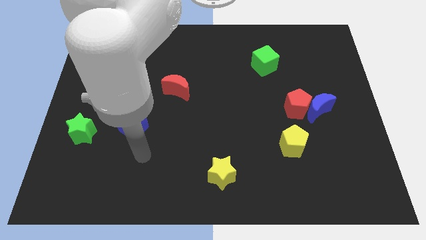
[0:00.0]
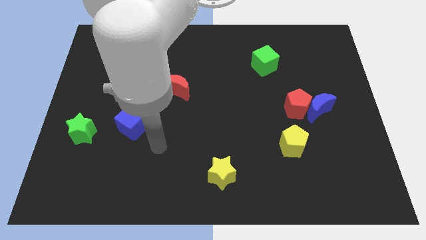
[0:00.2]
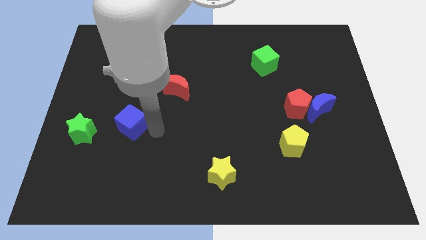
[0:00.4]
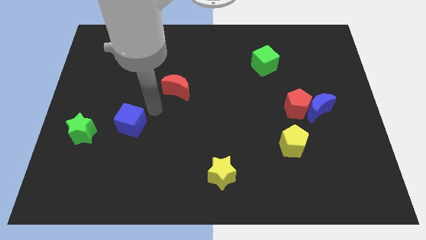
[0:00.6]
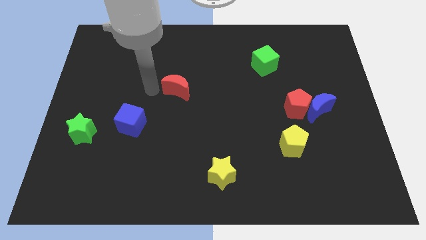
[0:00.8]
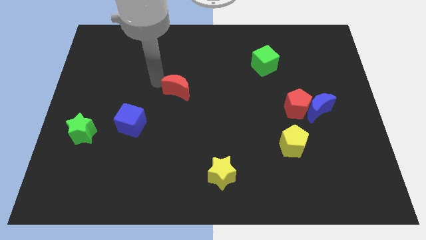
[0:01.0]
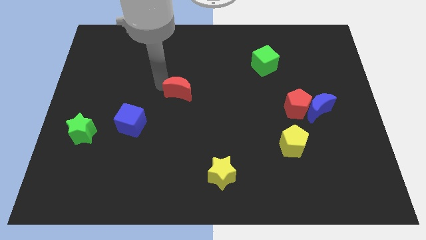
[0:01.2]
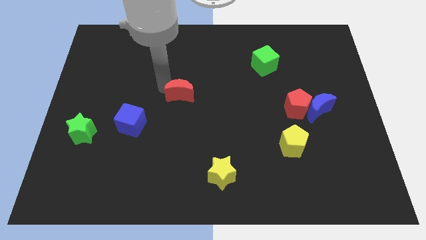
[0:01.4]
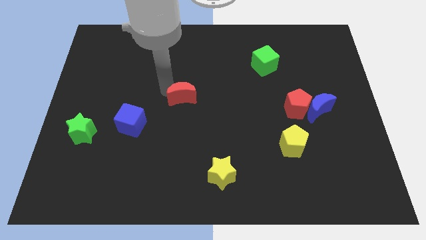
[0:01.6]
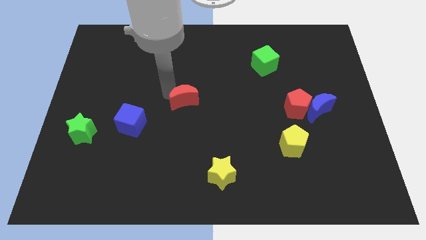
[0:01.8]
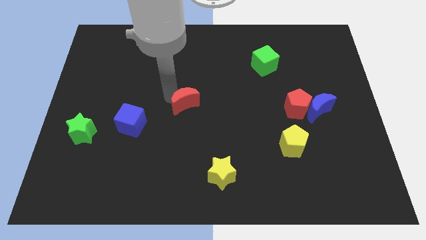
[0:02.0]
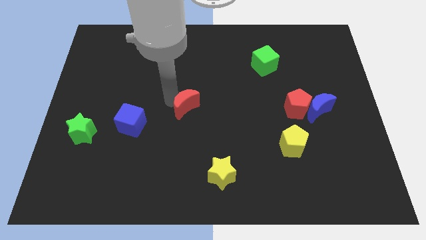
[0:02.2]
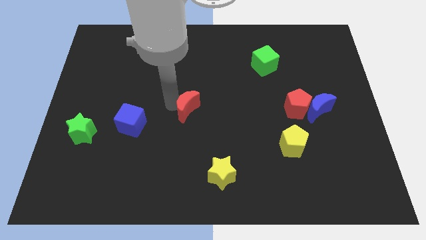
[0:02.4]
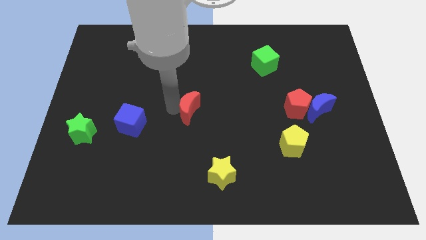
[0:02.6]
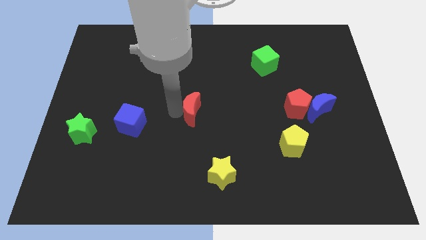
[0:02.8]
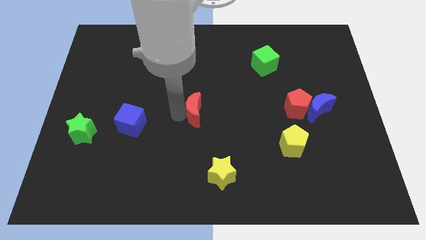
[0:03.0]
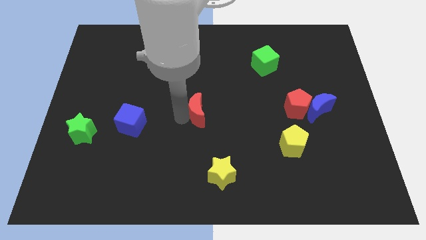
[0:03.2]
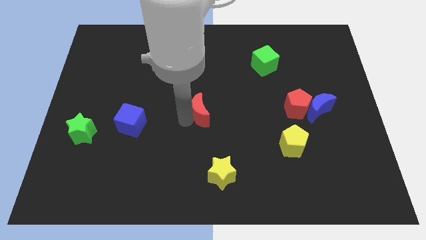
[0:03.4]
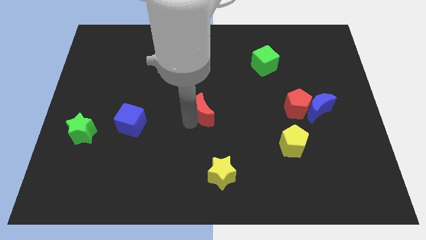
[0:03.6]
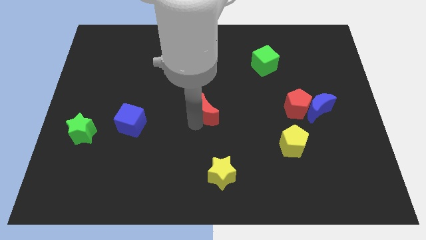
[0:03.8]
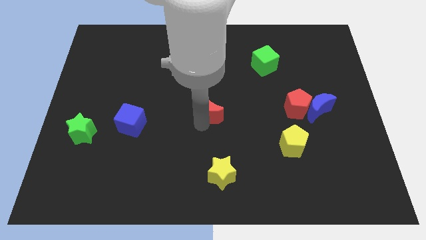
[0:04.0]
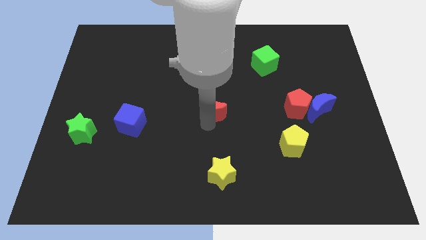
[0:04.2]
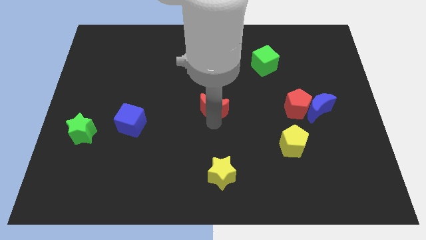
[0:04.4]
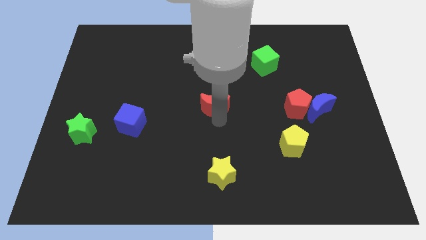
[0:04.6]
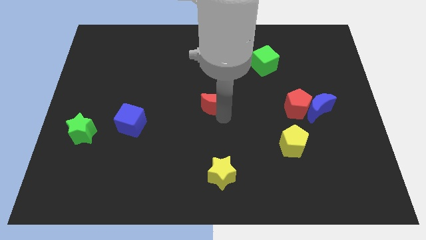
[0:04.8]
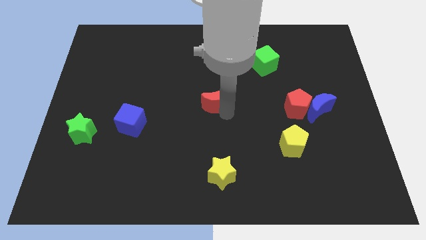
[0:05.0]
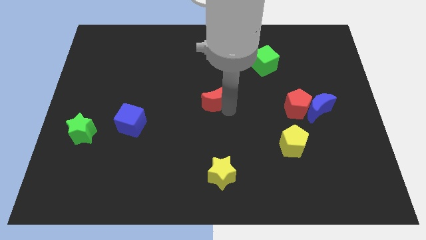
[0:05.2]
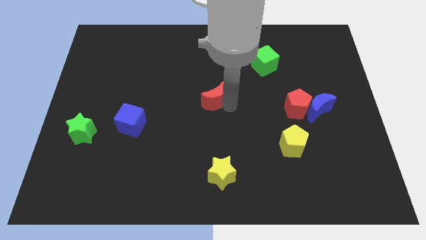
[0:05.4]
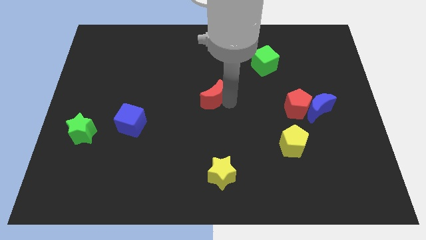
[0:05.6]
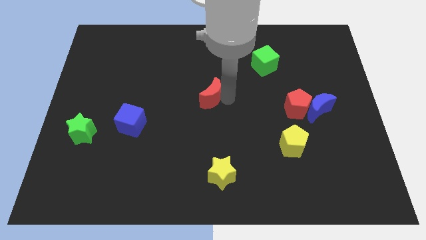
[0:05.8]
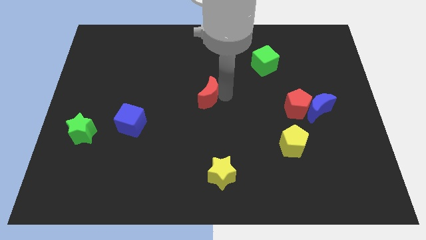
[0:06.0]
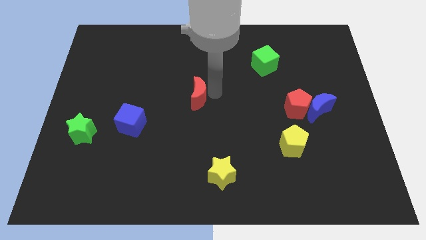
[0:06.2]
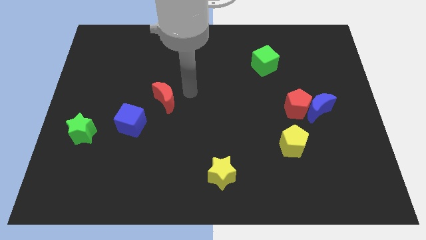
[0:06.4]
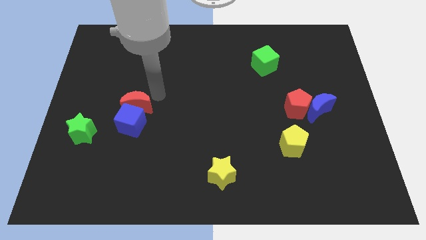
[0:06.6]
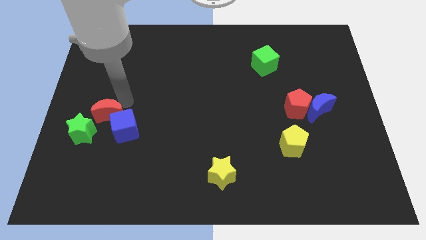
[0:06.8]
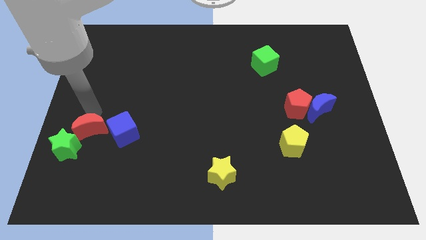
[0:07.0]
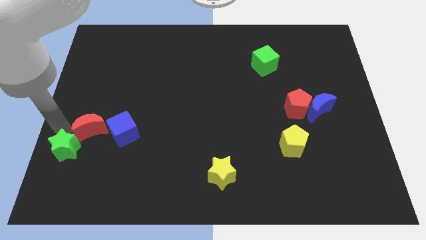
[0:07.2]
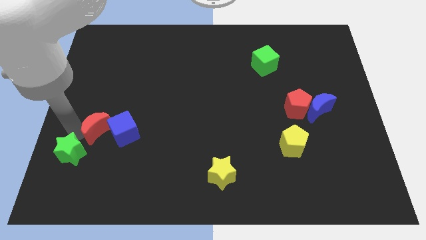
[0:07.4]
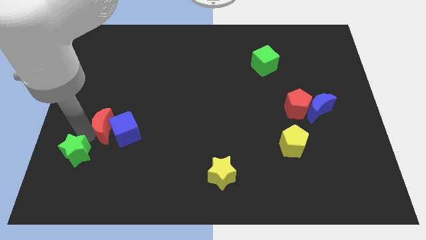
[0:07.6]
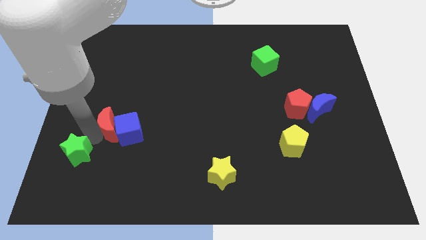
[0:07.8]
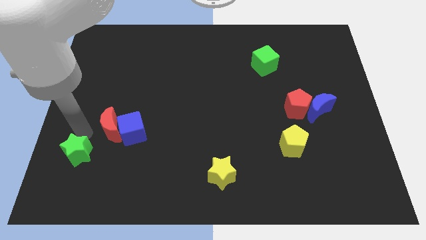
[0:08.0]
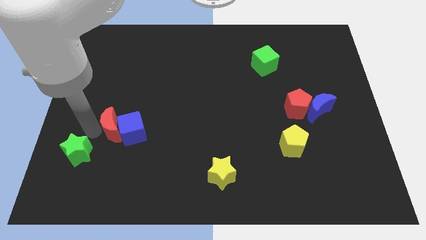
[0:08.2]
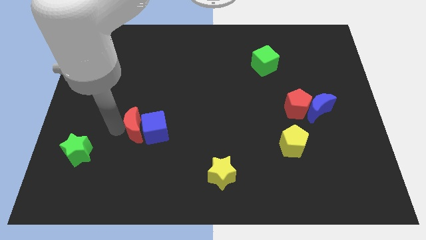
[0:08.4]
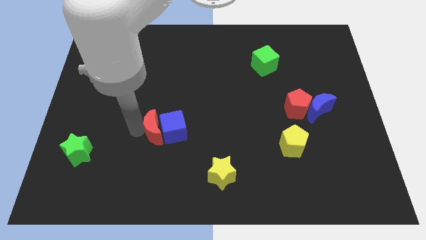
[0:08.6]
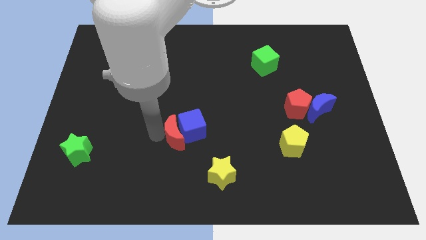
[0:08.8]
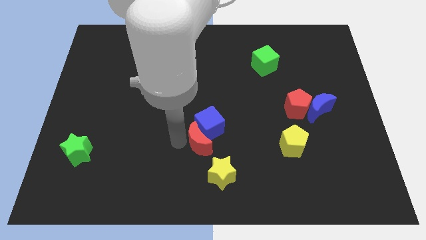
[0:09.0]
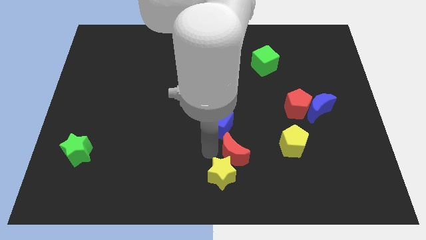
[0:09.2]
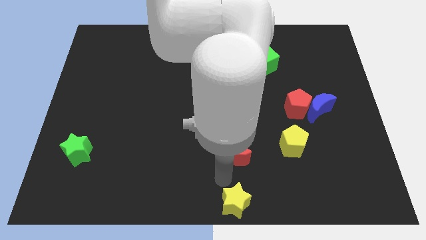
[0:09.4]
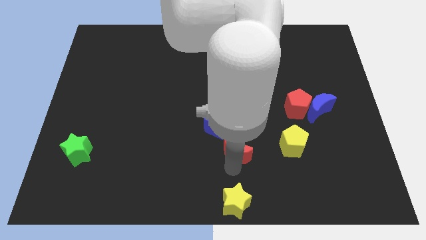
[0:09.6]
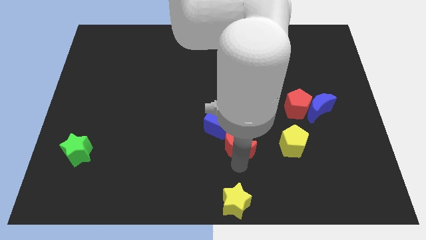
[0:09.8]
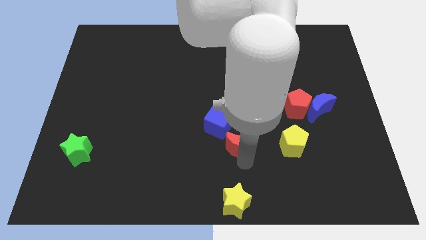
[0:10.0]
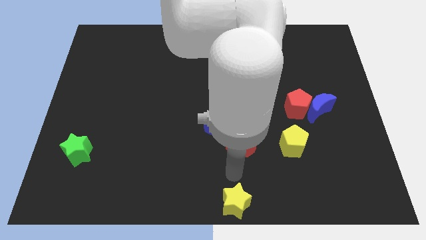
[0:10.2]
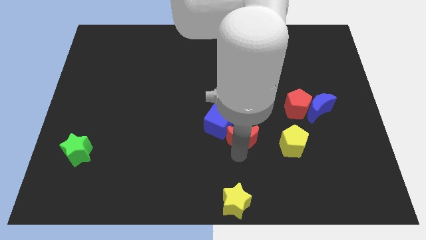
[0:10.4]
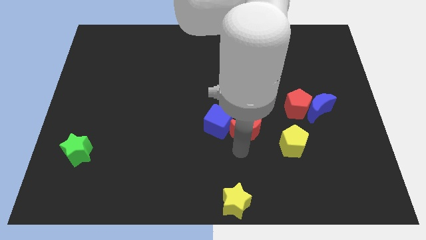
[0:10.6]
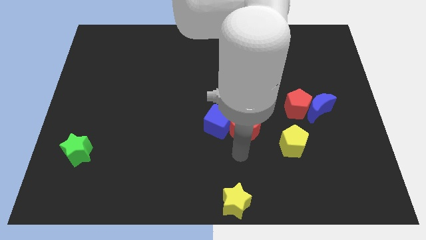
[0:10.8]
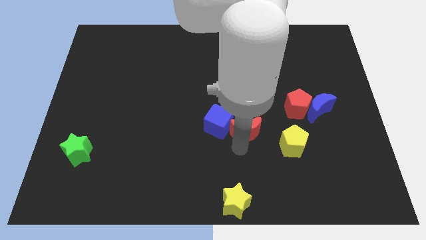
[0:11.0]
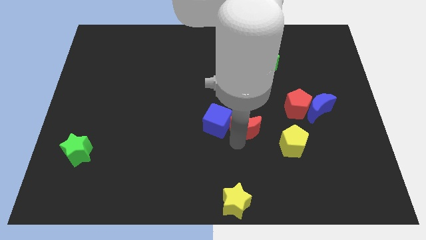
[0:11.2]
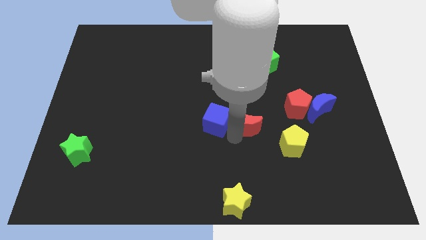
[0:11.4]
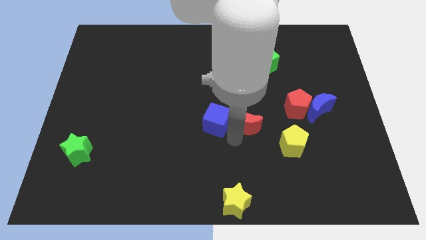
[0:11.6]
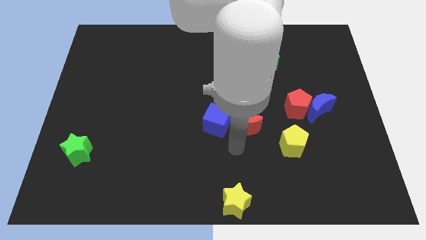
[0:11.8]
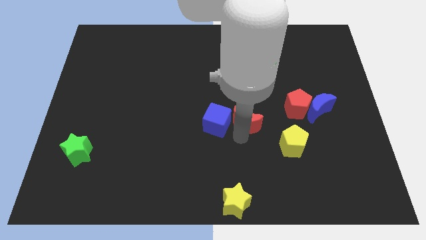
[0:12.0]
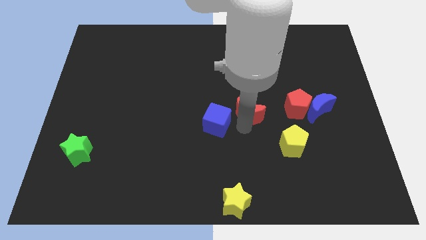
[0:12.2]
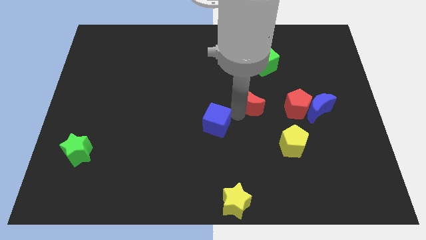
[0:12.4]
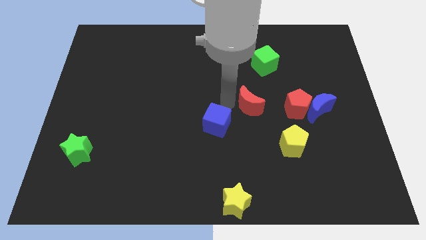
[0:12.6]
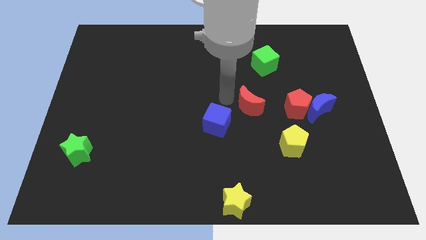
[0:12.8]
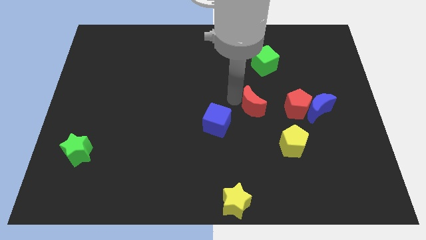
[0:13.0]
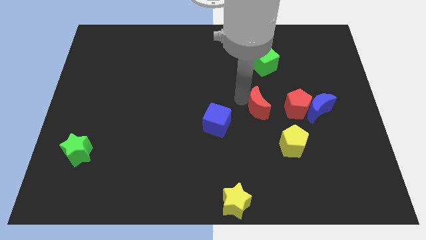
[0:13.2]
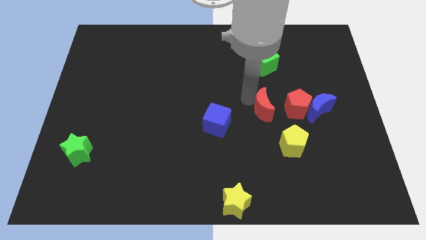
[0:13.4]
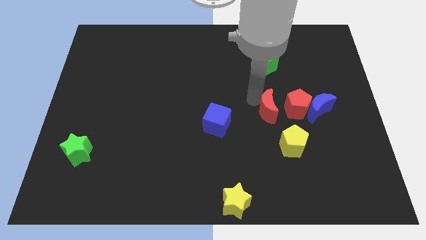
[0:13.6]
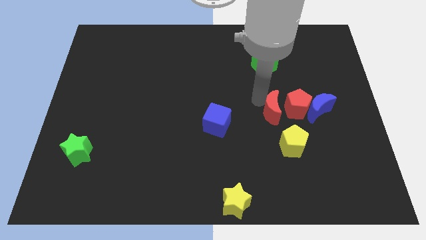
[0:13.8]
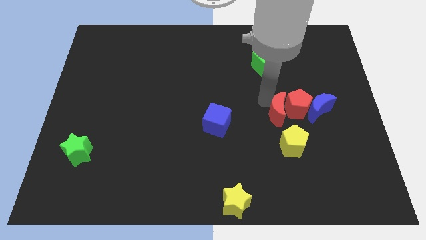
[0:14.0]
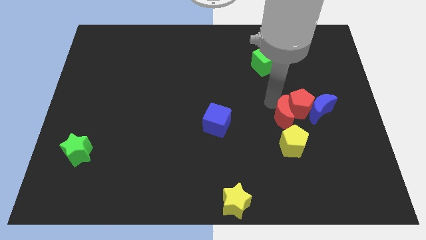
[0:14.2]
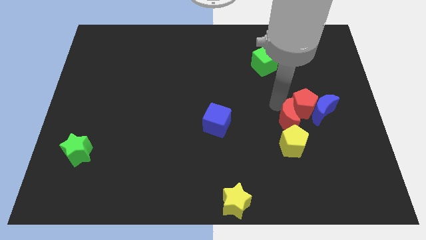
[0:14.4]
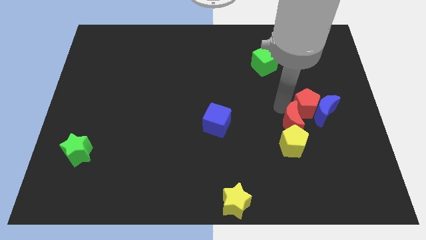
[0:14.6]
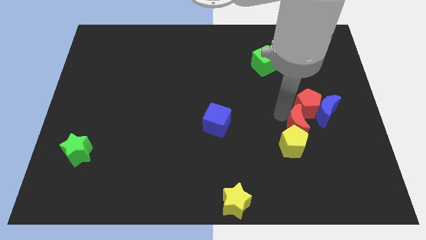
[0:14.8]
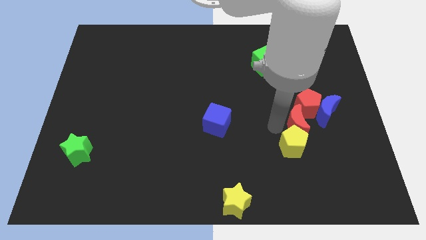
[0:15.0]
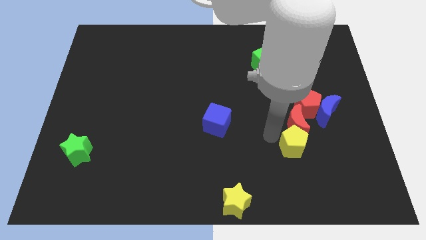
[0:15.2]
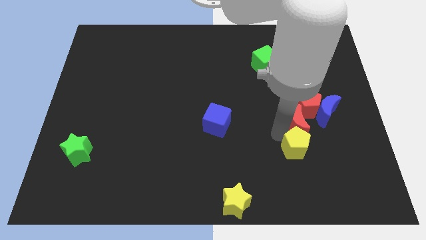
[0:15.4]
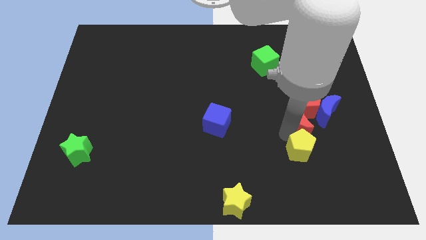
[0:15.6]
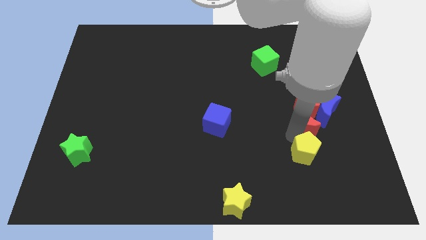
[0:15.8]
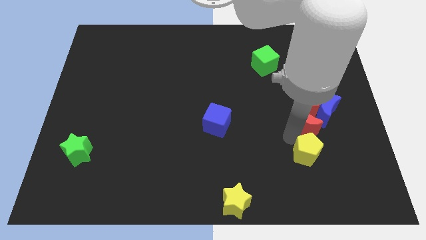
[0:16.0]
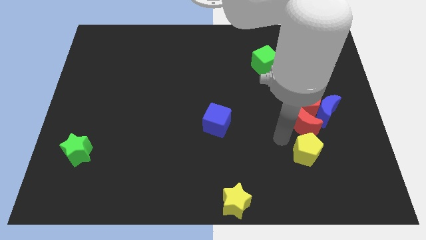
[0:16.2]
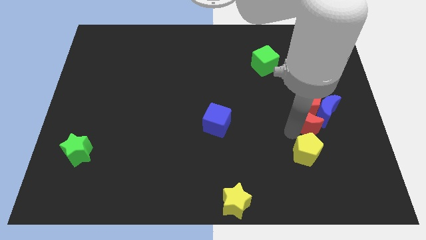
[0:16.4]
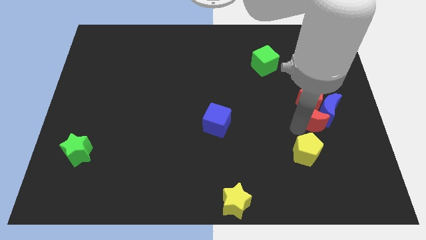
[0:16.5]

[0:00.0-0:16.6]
put the red moon to the blue moon
